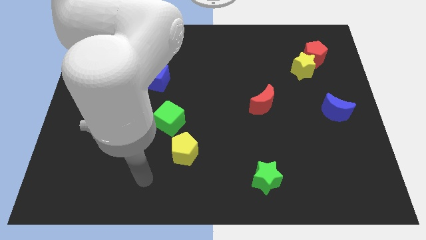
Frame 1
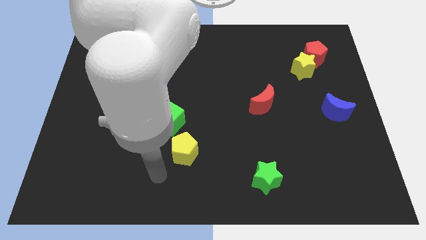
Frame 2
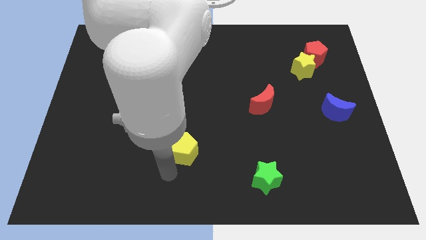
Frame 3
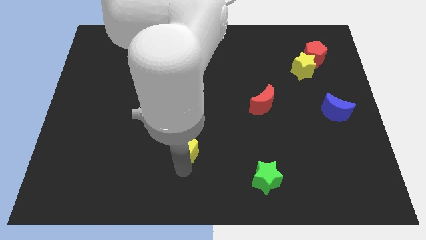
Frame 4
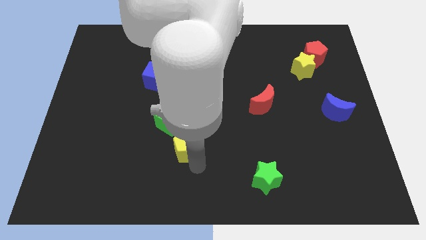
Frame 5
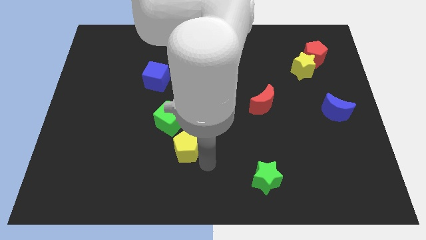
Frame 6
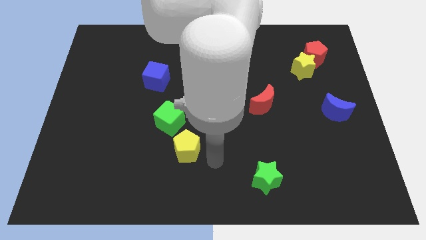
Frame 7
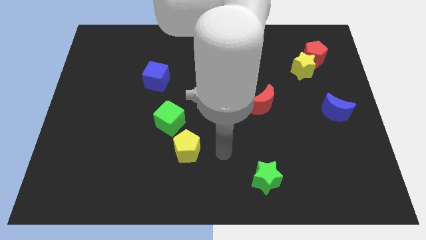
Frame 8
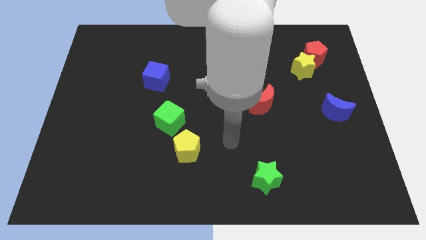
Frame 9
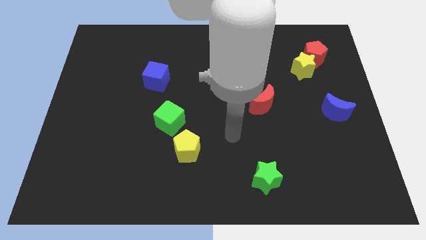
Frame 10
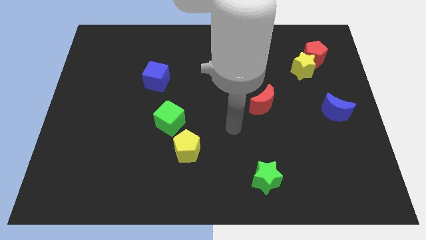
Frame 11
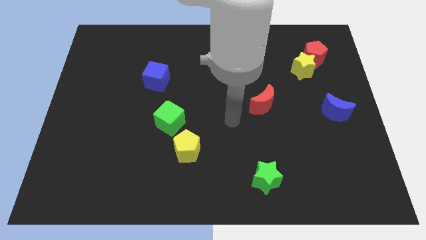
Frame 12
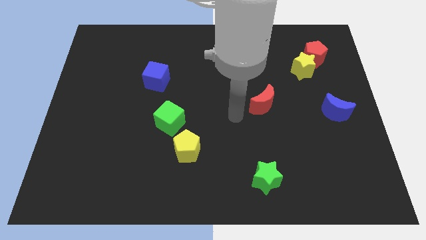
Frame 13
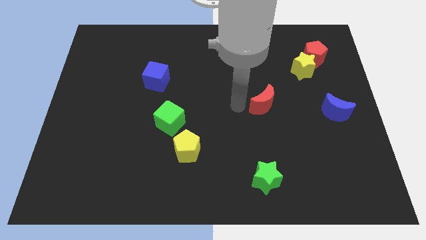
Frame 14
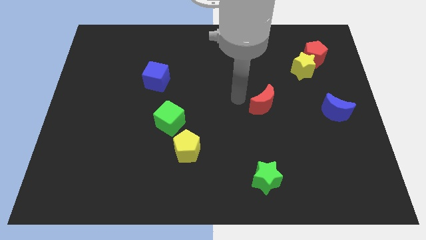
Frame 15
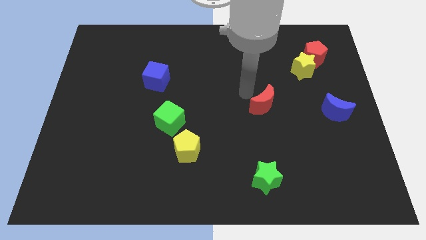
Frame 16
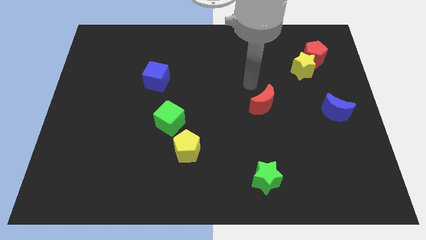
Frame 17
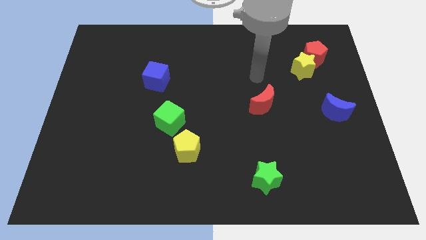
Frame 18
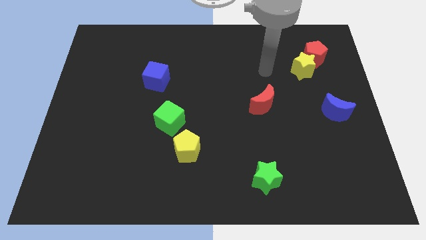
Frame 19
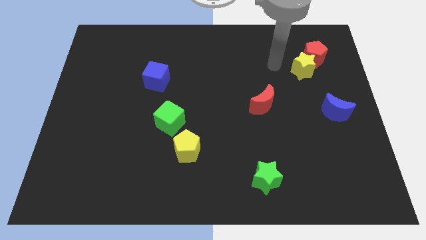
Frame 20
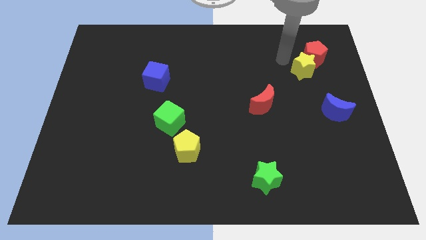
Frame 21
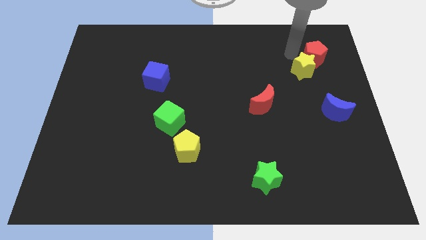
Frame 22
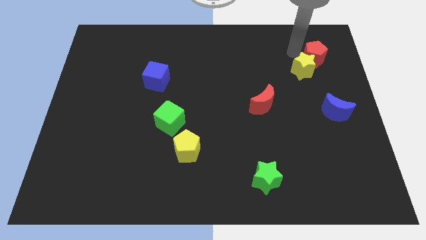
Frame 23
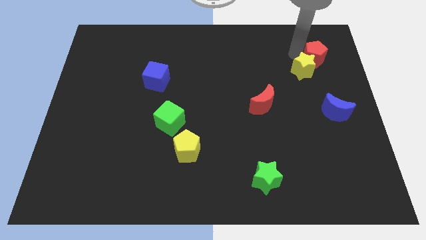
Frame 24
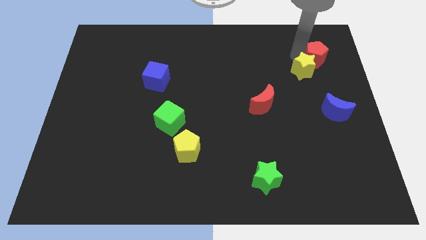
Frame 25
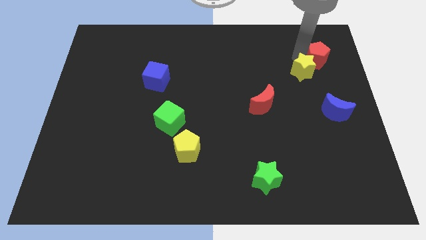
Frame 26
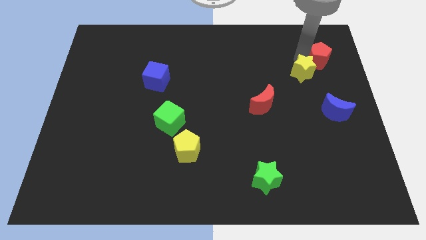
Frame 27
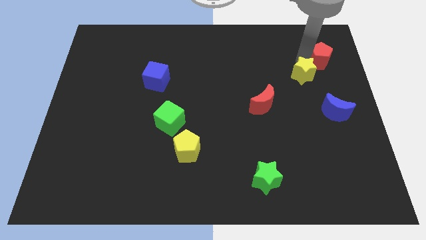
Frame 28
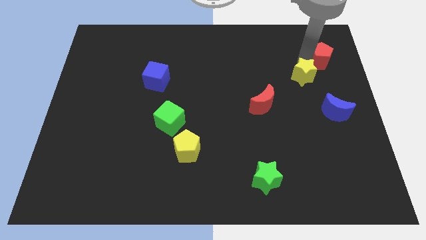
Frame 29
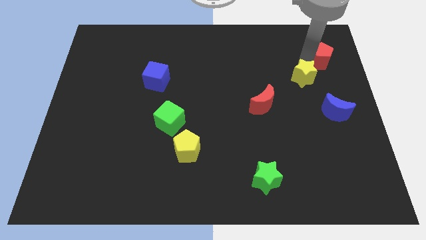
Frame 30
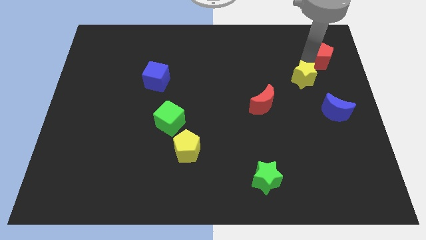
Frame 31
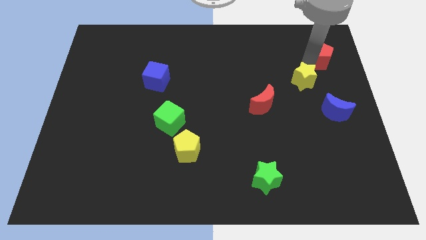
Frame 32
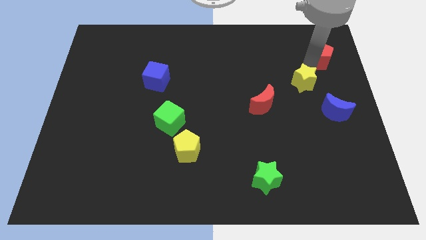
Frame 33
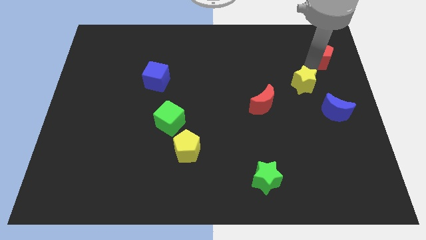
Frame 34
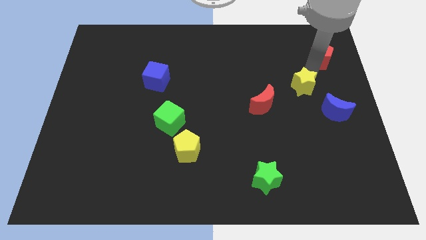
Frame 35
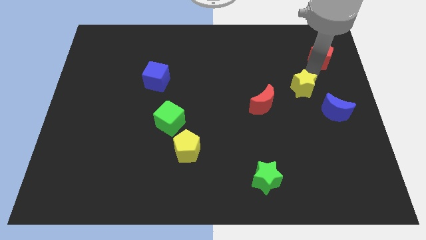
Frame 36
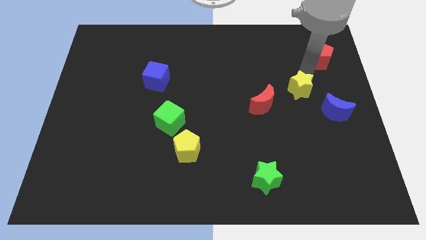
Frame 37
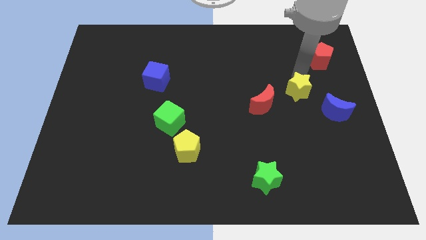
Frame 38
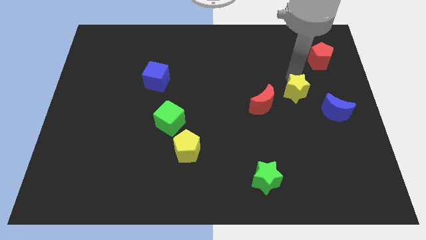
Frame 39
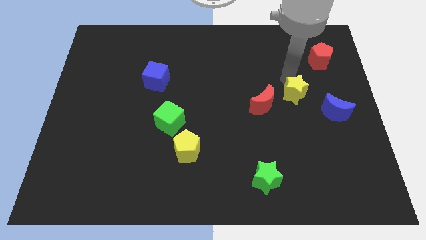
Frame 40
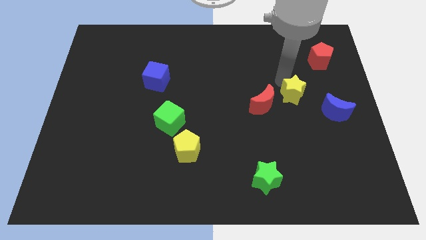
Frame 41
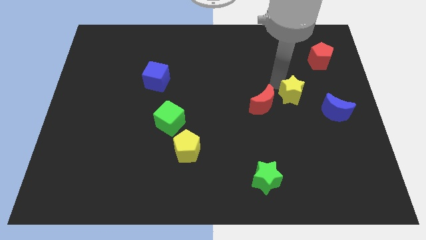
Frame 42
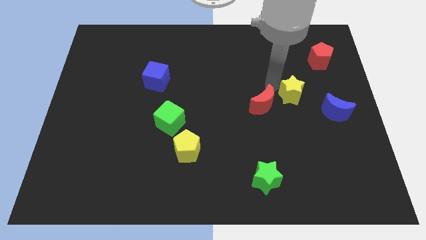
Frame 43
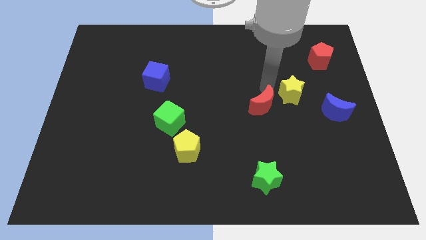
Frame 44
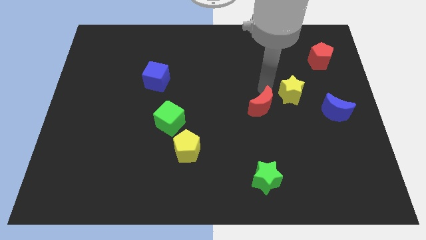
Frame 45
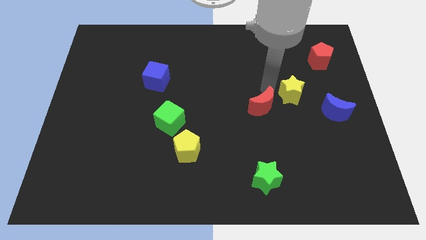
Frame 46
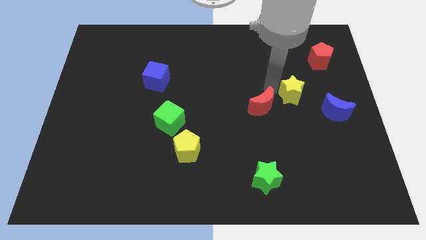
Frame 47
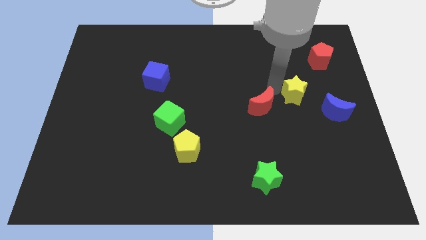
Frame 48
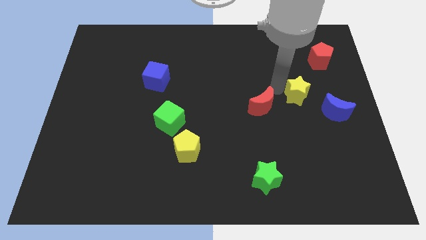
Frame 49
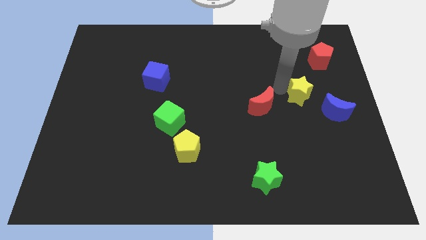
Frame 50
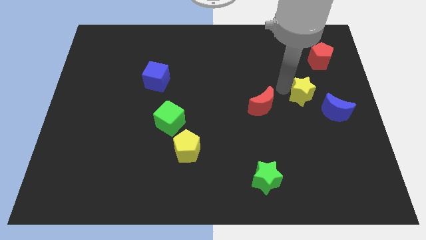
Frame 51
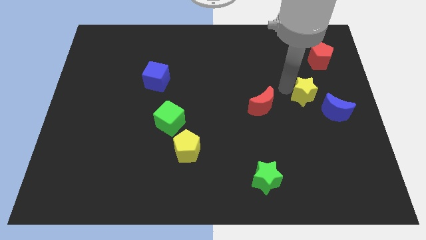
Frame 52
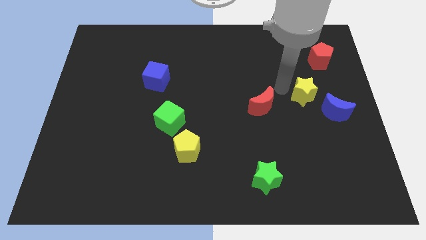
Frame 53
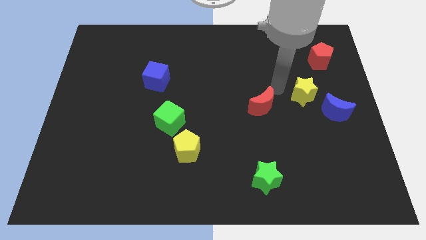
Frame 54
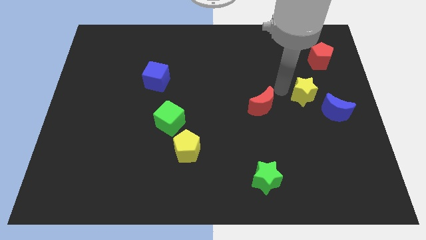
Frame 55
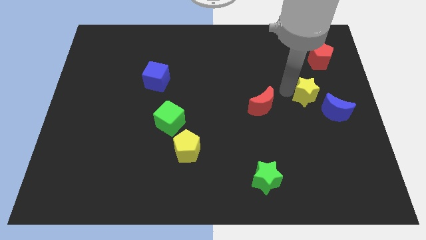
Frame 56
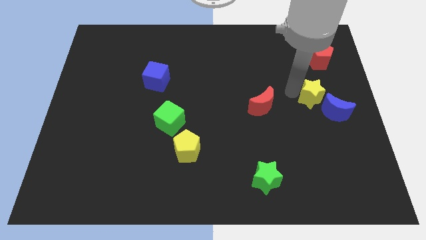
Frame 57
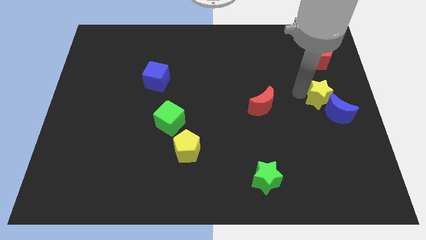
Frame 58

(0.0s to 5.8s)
move the yellow star close to the blue moon

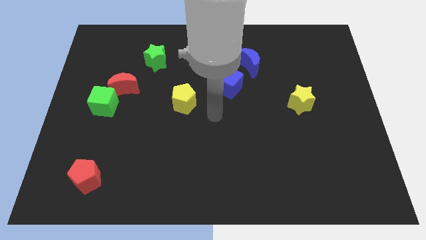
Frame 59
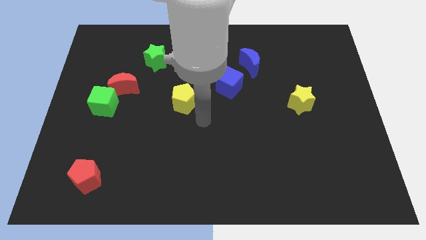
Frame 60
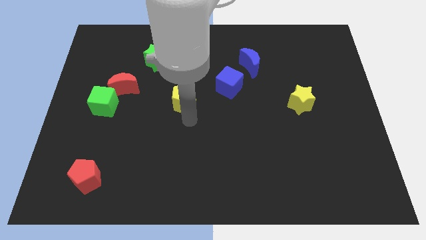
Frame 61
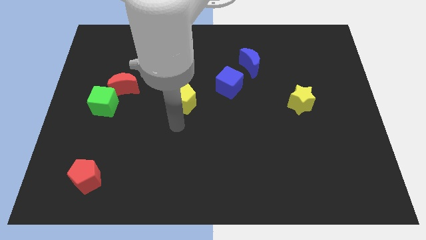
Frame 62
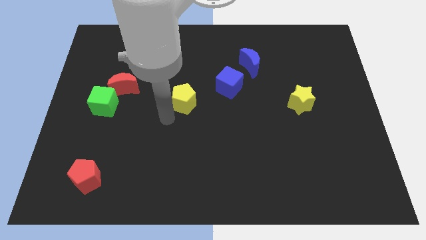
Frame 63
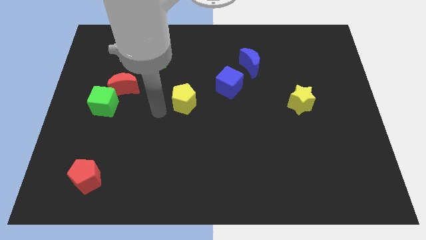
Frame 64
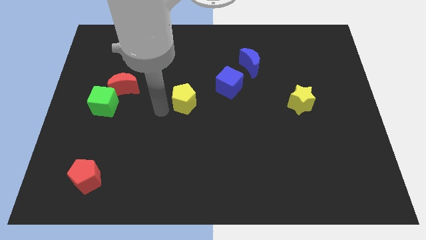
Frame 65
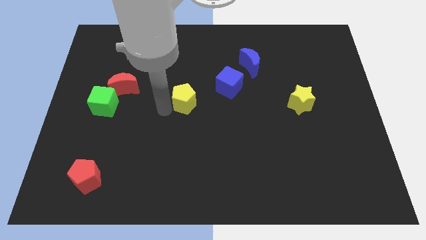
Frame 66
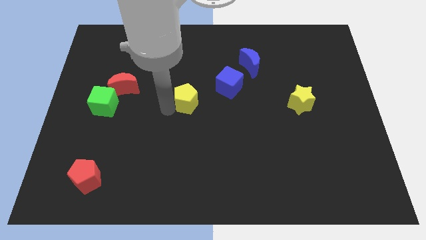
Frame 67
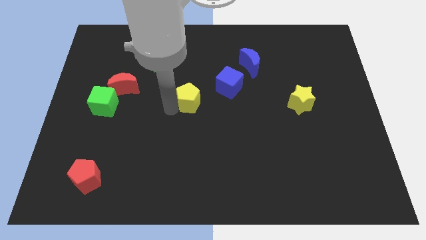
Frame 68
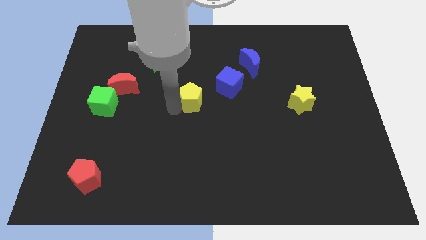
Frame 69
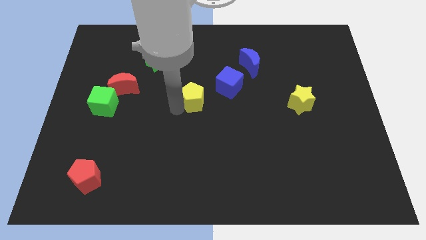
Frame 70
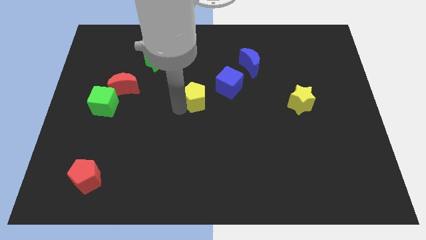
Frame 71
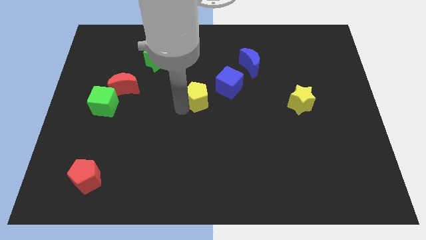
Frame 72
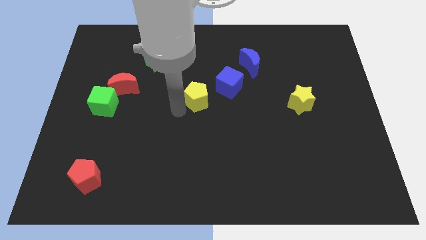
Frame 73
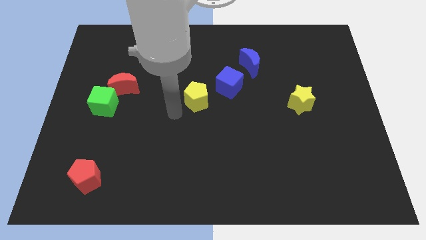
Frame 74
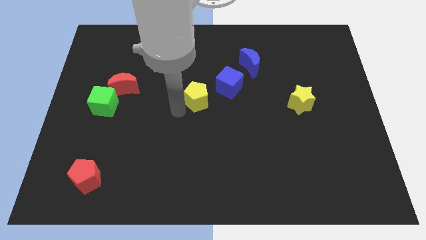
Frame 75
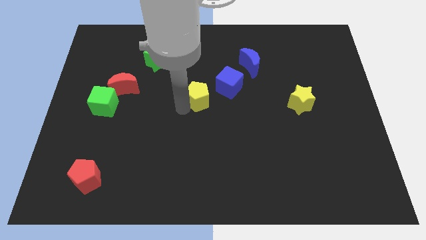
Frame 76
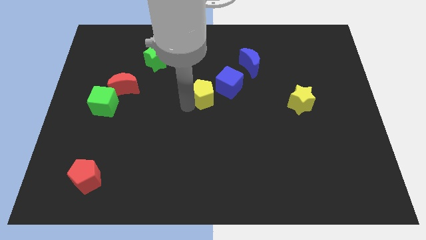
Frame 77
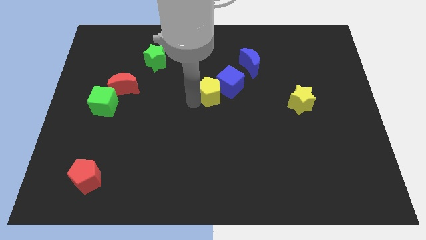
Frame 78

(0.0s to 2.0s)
put the yellow pentagon towards the blue cube
